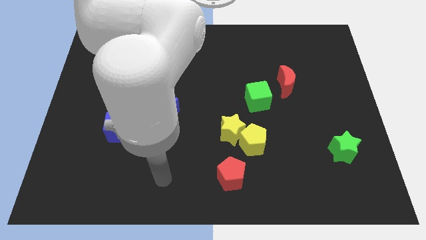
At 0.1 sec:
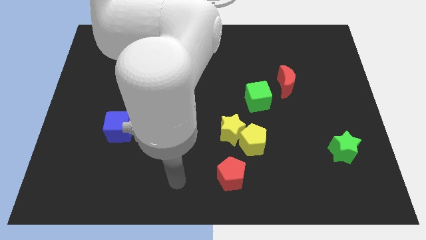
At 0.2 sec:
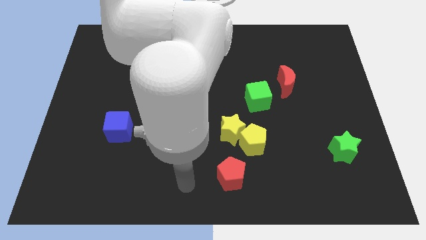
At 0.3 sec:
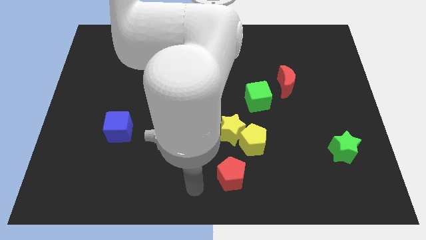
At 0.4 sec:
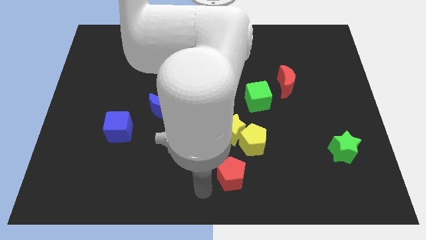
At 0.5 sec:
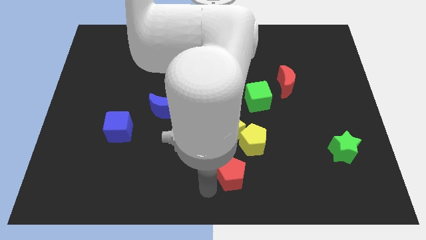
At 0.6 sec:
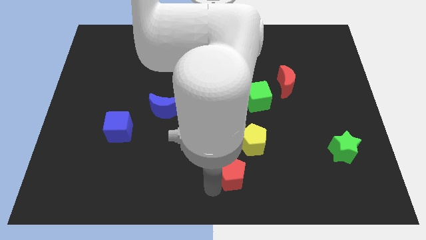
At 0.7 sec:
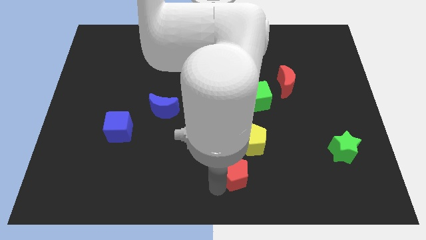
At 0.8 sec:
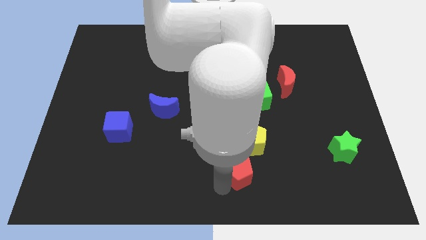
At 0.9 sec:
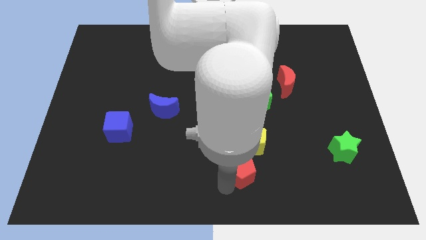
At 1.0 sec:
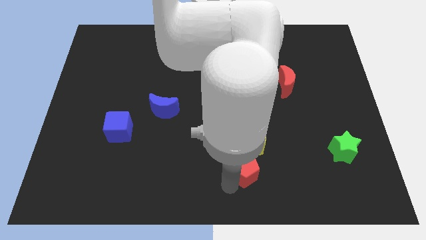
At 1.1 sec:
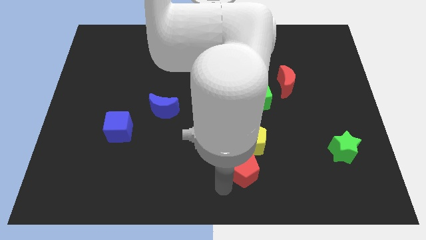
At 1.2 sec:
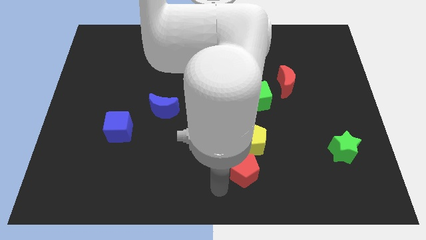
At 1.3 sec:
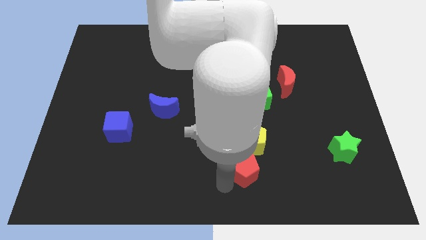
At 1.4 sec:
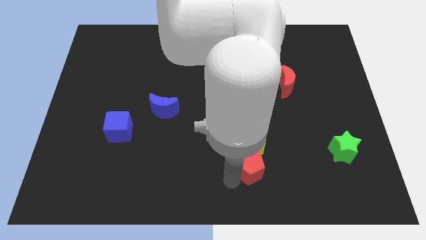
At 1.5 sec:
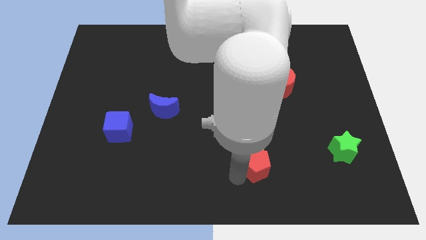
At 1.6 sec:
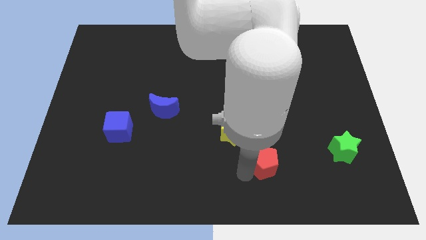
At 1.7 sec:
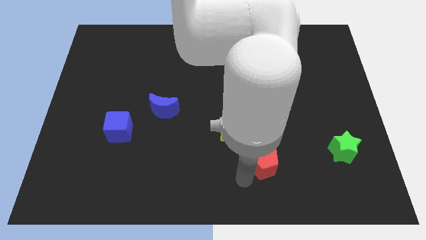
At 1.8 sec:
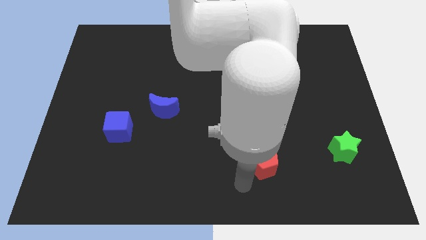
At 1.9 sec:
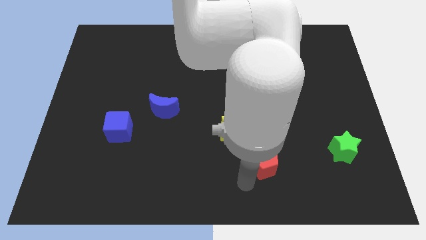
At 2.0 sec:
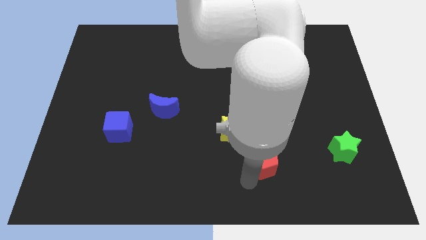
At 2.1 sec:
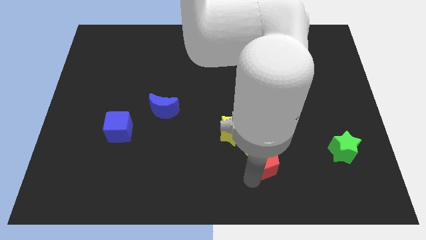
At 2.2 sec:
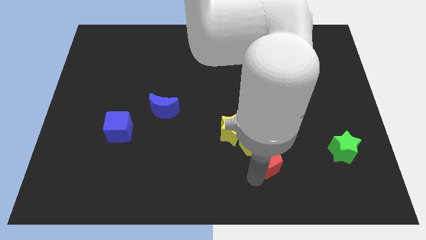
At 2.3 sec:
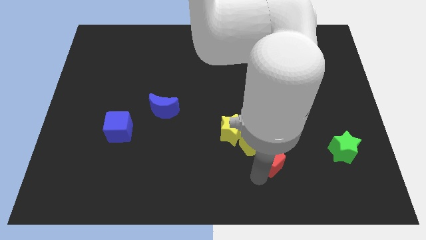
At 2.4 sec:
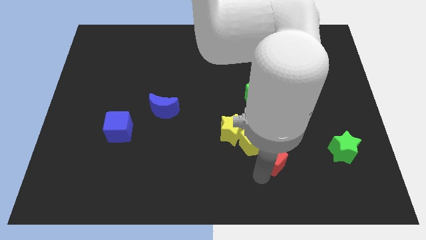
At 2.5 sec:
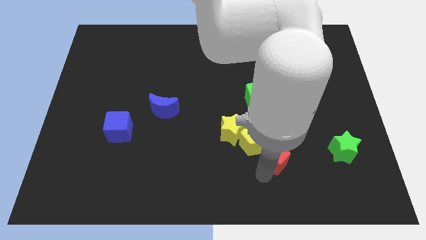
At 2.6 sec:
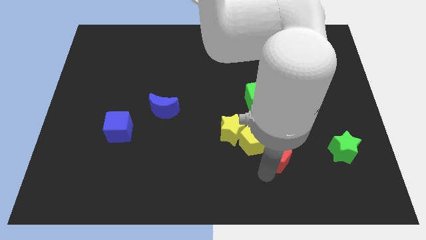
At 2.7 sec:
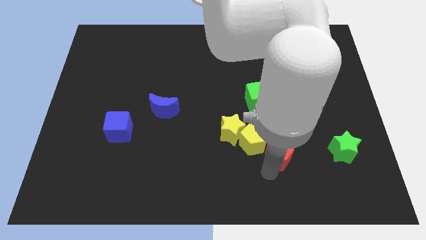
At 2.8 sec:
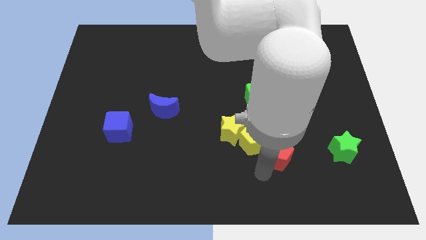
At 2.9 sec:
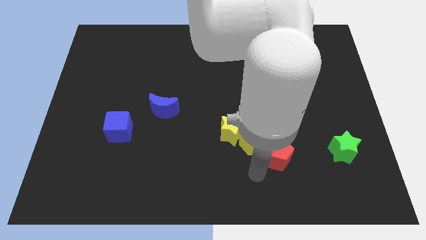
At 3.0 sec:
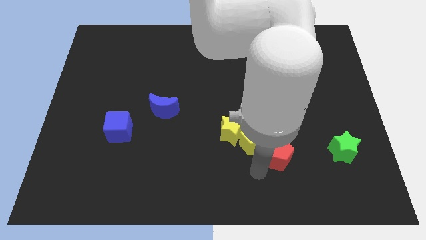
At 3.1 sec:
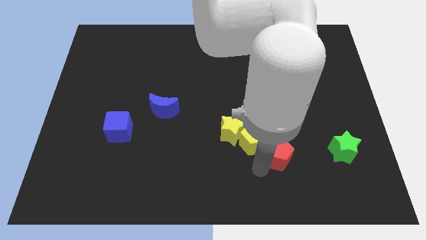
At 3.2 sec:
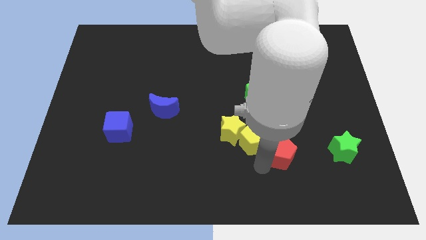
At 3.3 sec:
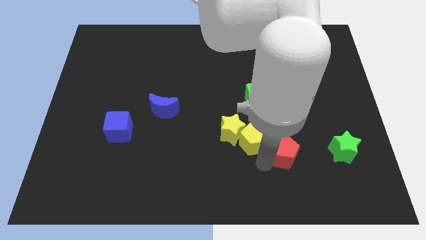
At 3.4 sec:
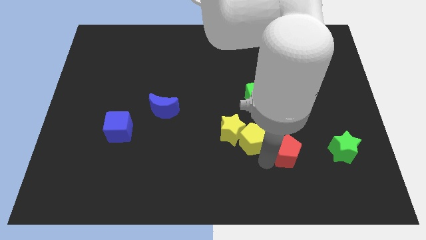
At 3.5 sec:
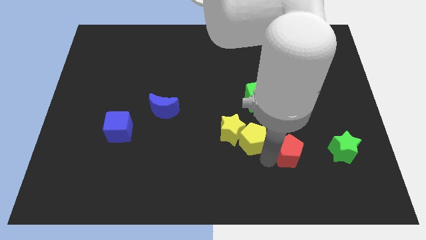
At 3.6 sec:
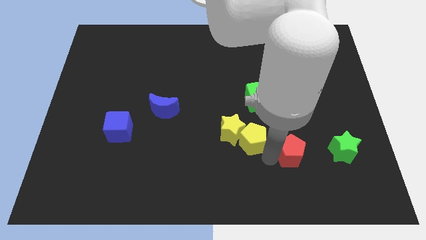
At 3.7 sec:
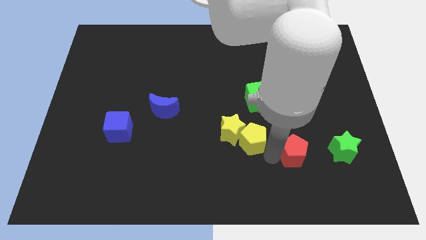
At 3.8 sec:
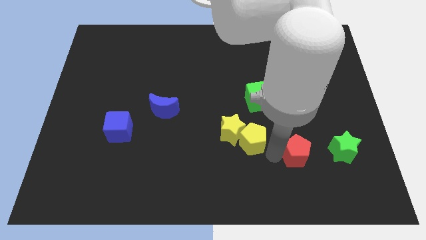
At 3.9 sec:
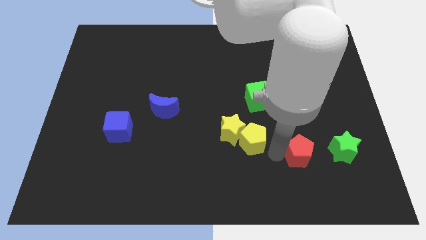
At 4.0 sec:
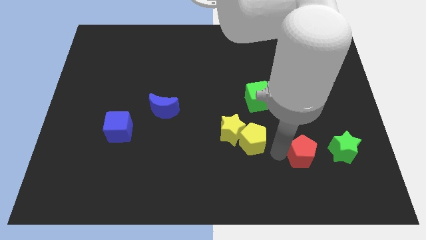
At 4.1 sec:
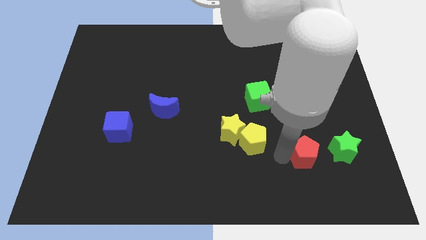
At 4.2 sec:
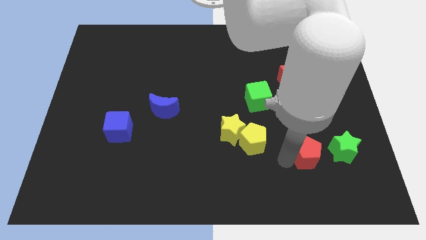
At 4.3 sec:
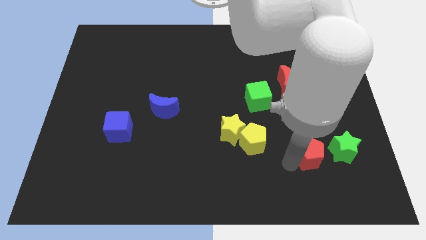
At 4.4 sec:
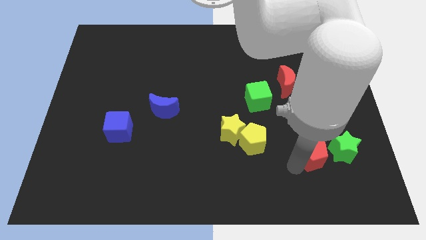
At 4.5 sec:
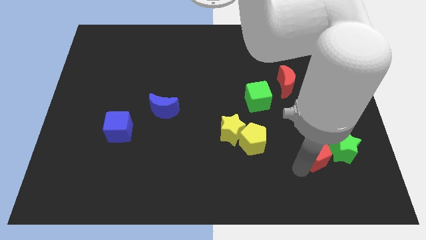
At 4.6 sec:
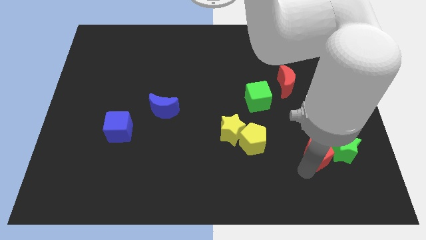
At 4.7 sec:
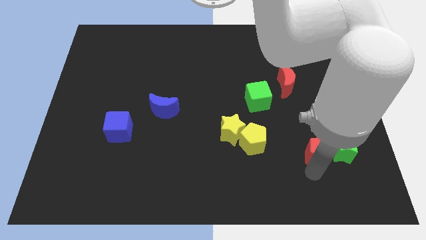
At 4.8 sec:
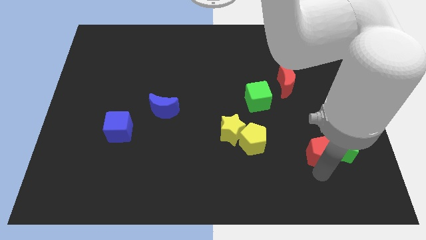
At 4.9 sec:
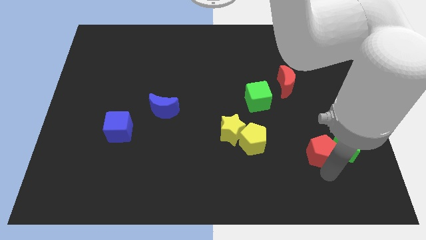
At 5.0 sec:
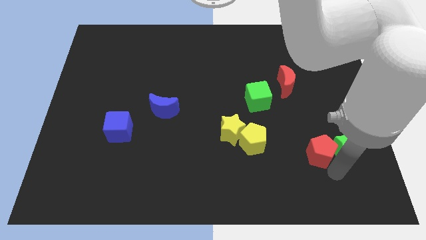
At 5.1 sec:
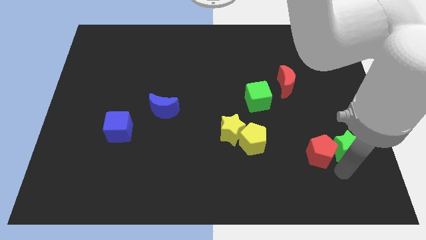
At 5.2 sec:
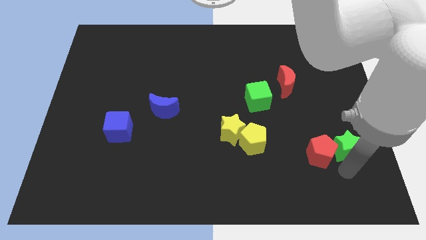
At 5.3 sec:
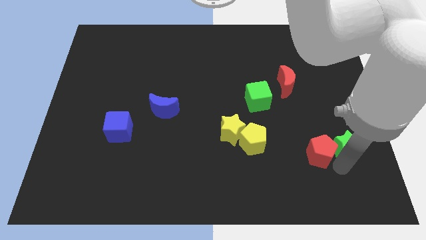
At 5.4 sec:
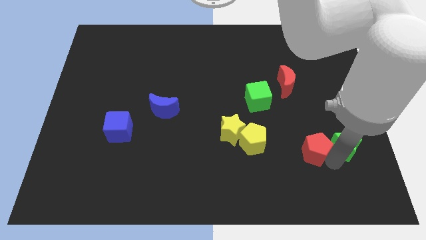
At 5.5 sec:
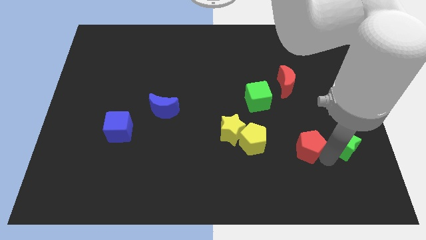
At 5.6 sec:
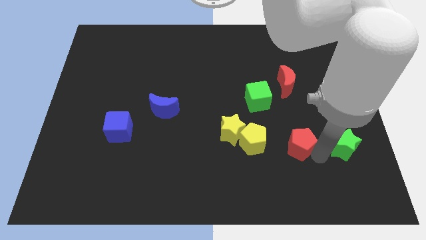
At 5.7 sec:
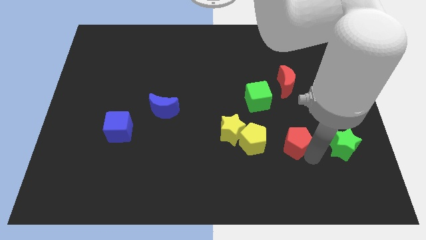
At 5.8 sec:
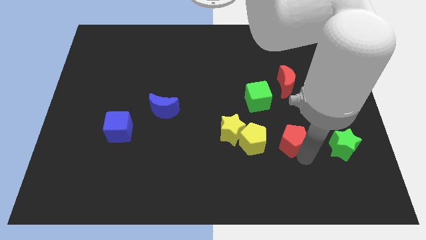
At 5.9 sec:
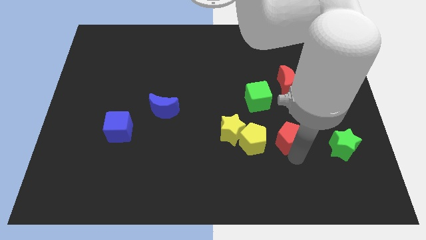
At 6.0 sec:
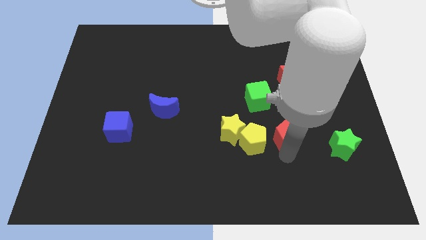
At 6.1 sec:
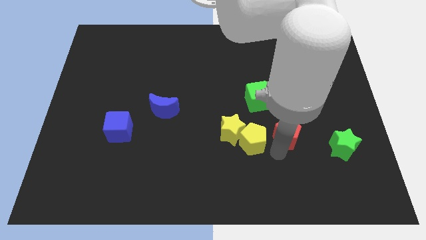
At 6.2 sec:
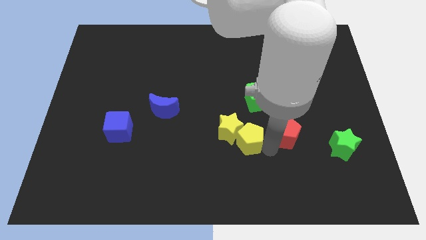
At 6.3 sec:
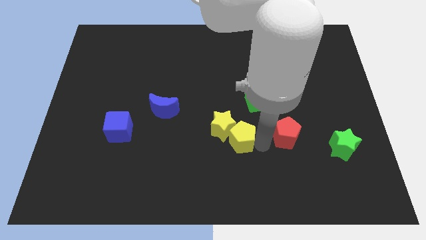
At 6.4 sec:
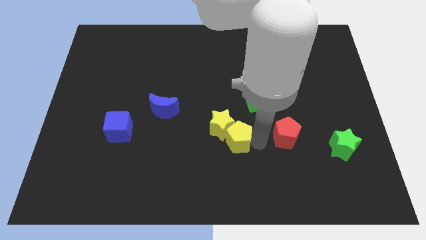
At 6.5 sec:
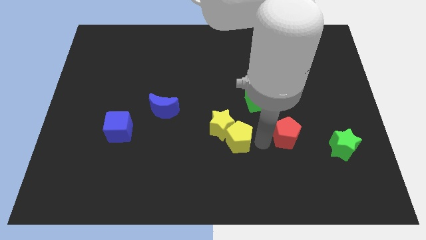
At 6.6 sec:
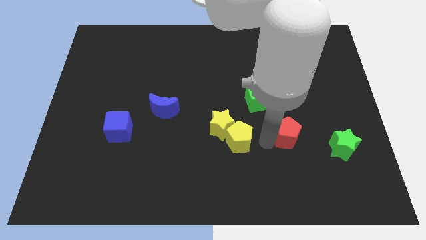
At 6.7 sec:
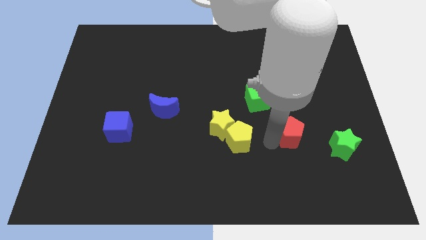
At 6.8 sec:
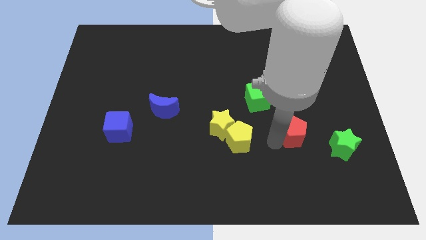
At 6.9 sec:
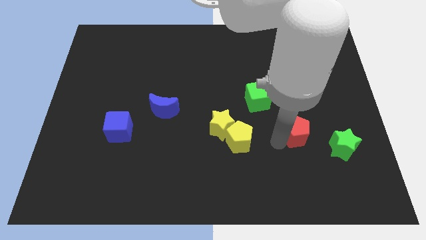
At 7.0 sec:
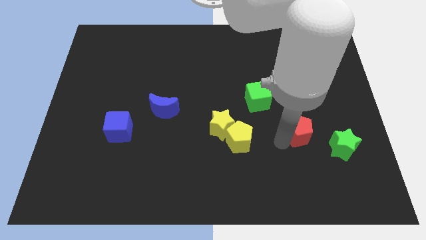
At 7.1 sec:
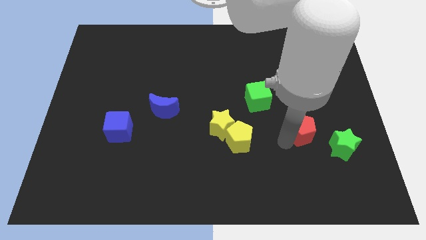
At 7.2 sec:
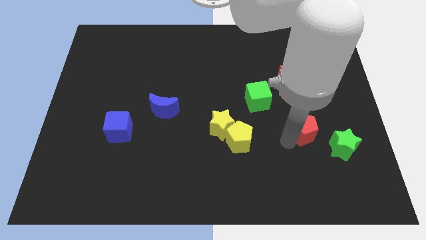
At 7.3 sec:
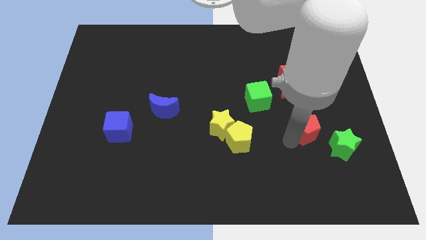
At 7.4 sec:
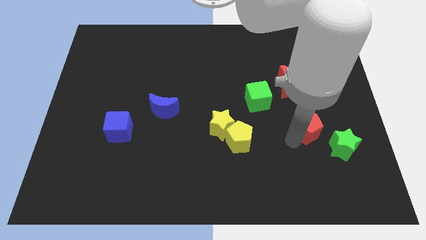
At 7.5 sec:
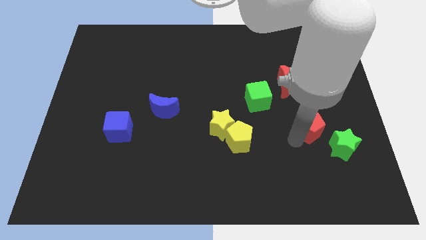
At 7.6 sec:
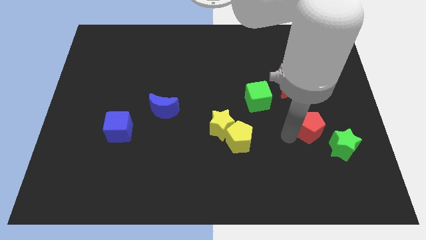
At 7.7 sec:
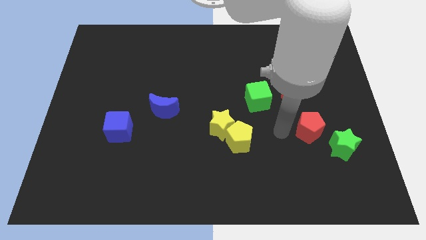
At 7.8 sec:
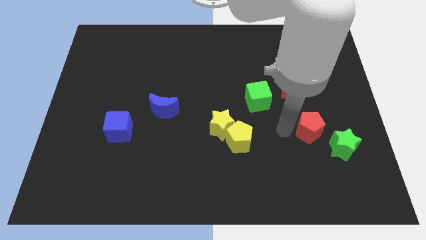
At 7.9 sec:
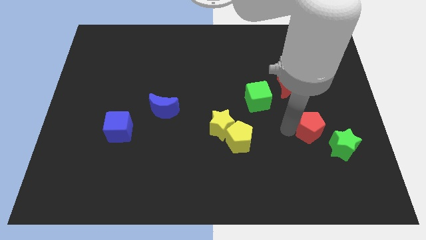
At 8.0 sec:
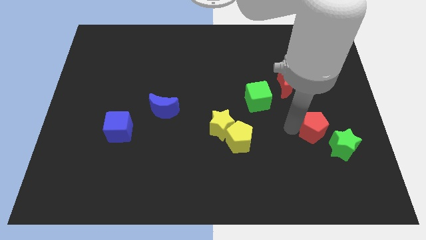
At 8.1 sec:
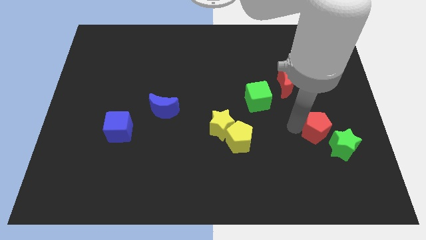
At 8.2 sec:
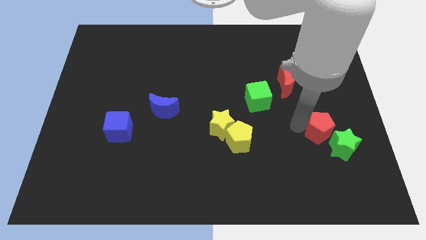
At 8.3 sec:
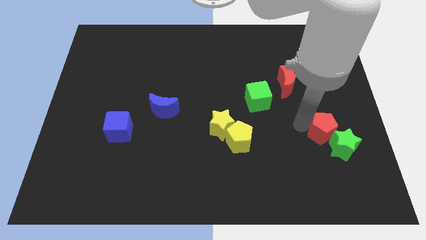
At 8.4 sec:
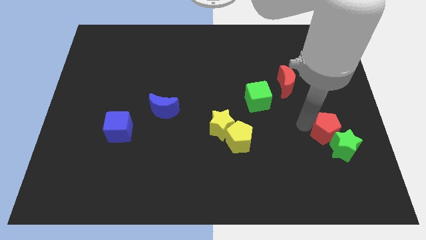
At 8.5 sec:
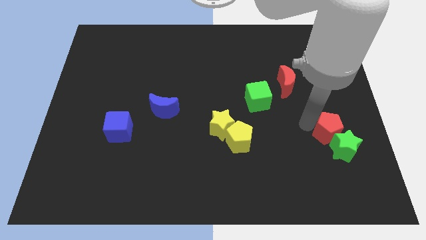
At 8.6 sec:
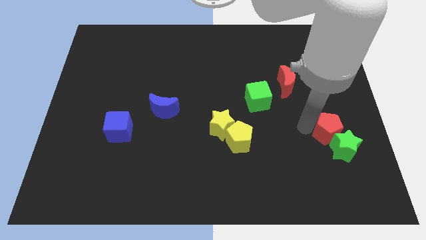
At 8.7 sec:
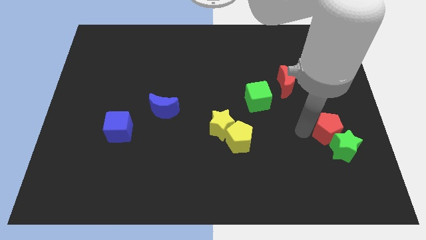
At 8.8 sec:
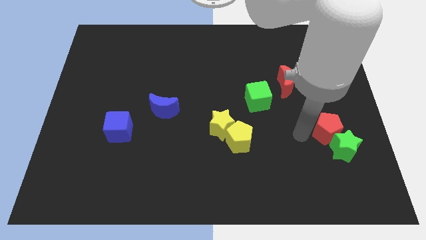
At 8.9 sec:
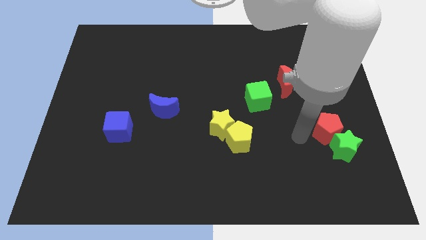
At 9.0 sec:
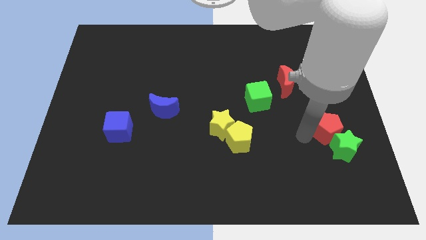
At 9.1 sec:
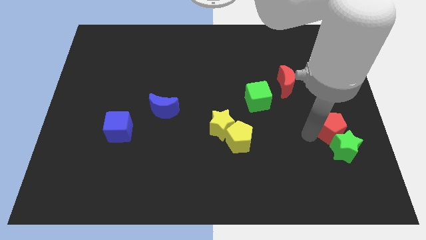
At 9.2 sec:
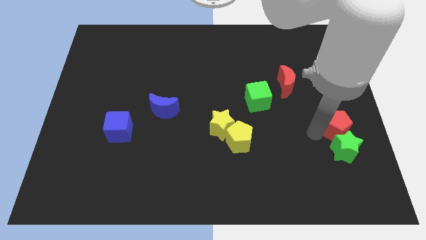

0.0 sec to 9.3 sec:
move the red pentagon to the right side
